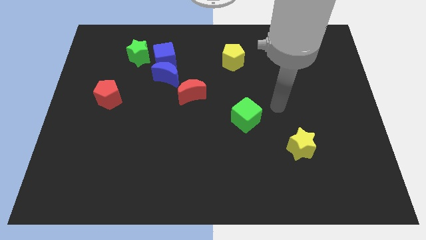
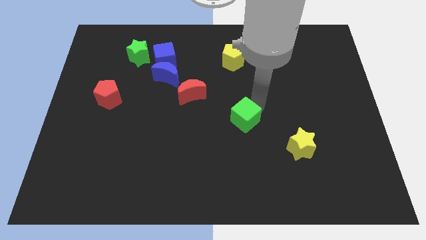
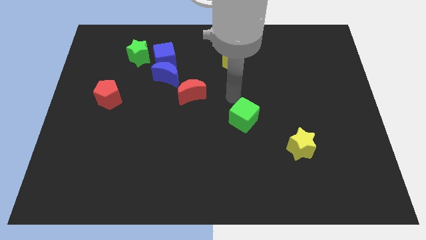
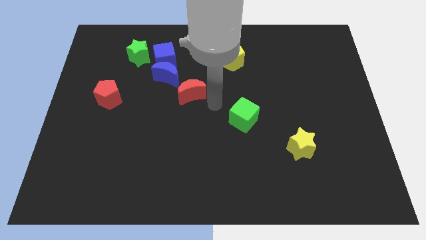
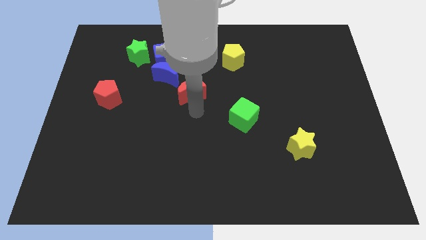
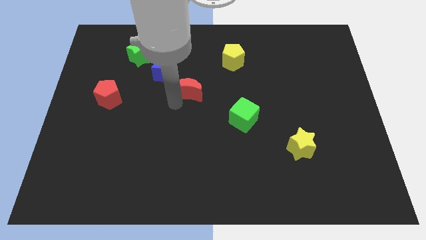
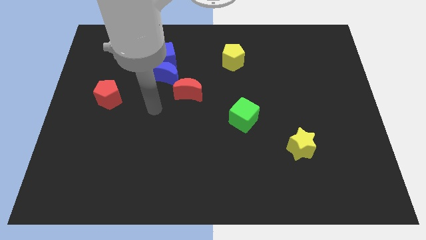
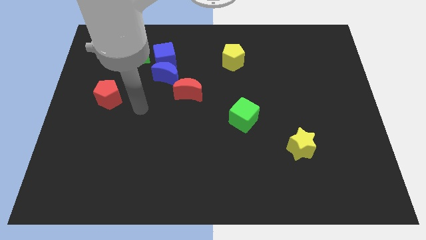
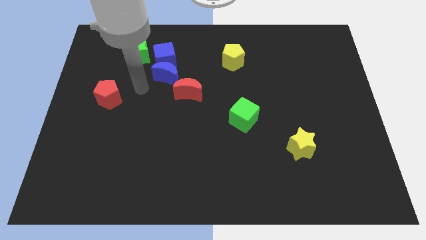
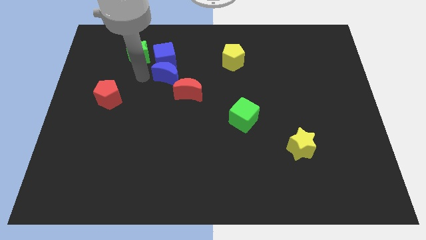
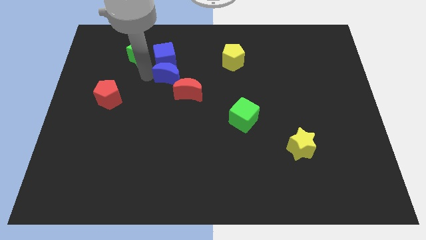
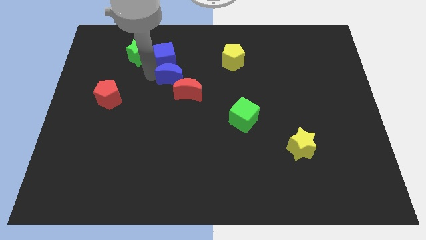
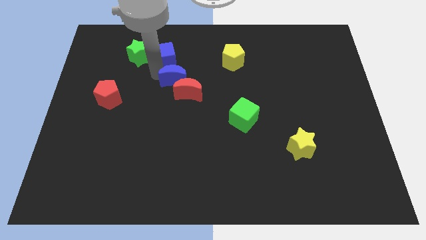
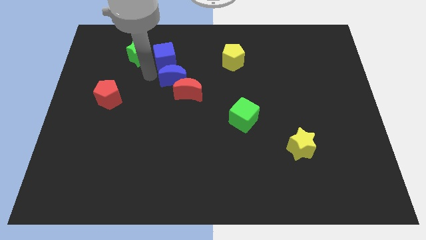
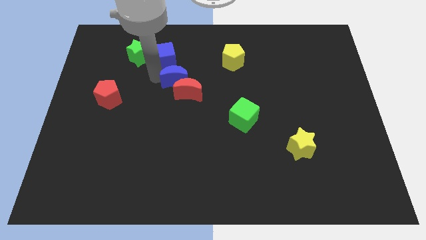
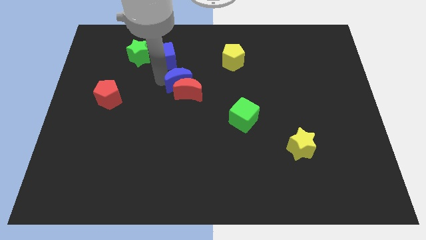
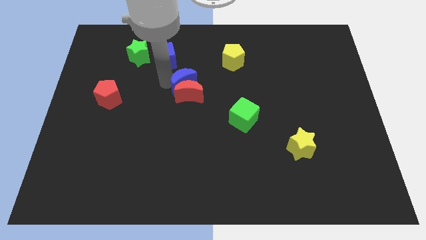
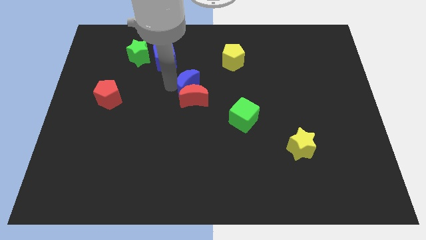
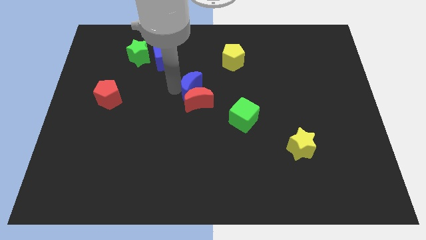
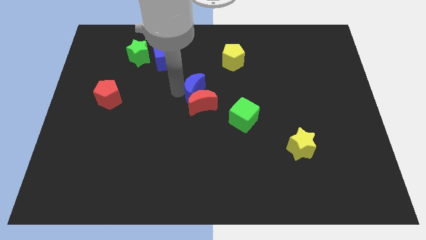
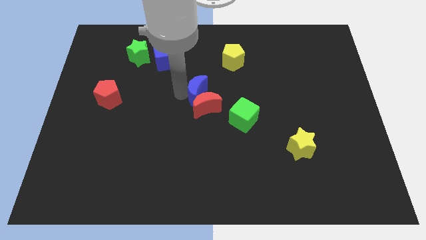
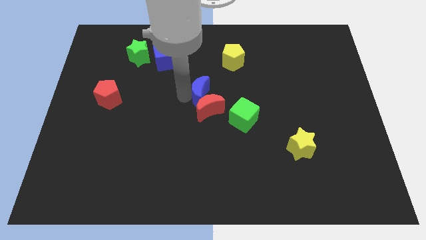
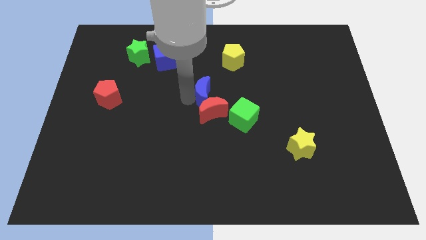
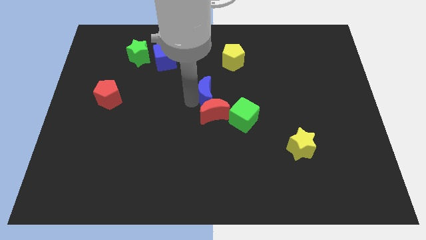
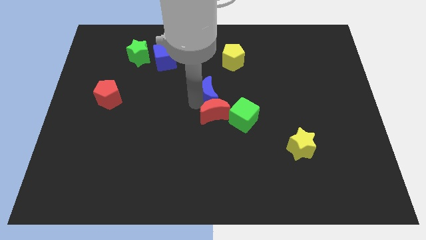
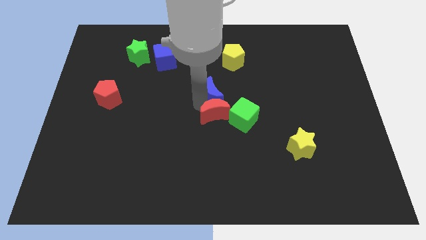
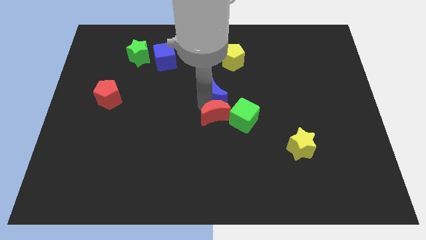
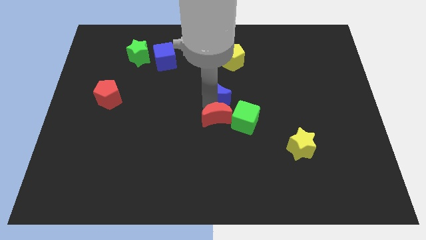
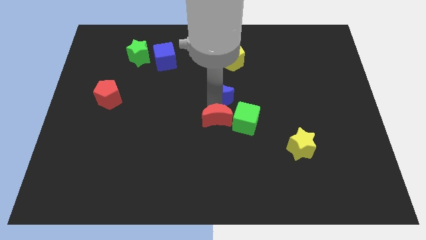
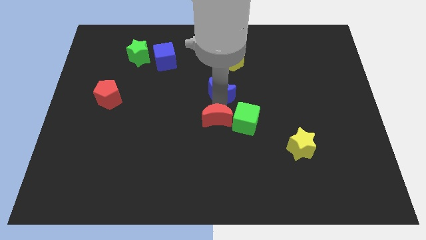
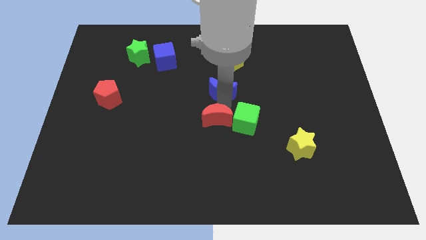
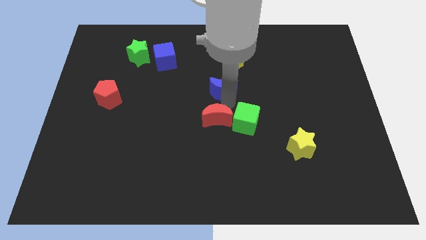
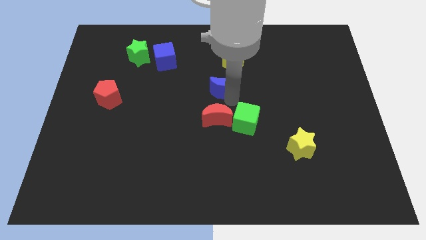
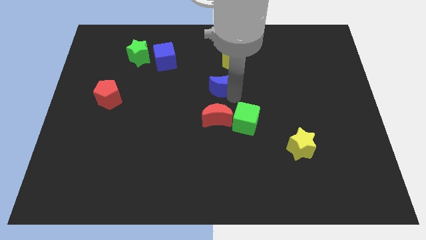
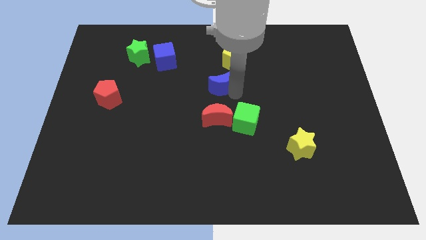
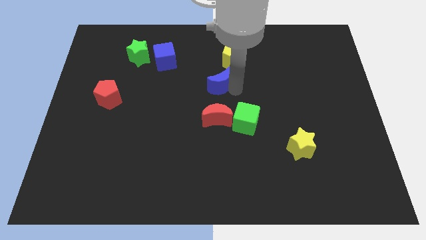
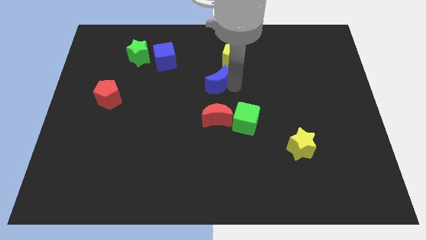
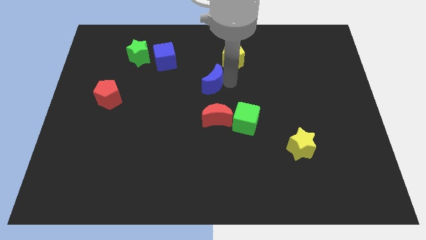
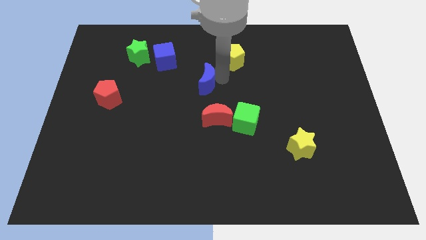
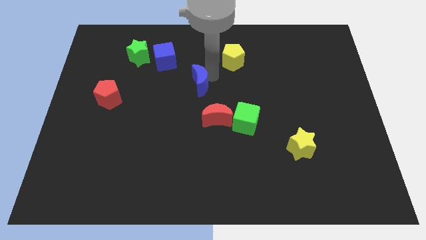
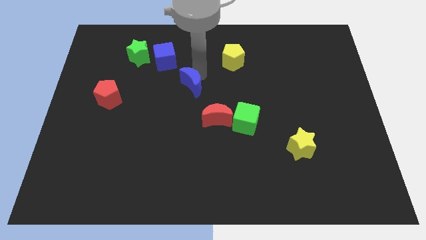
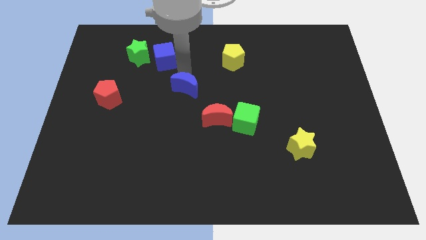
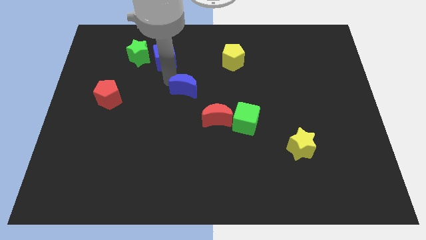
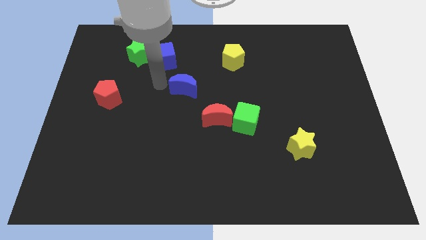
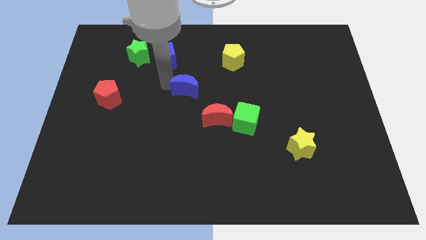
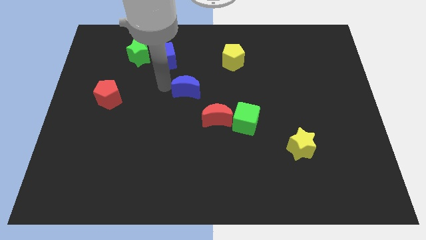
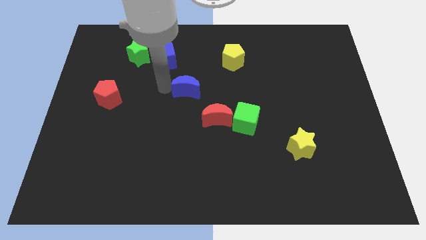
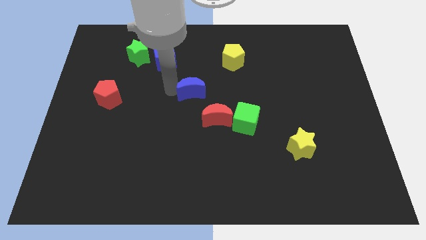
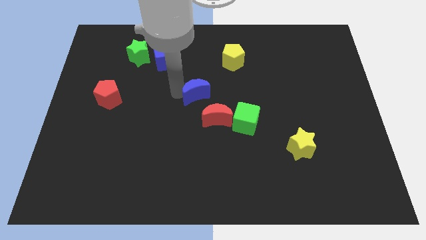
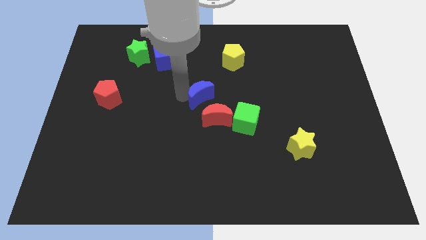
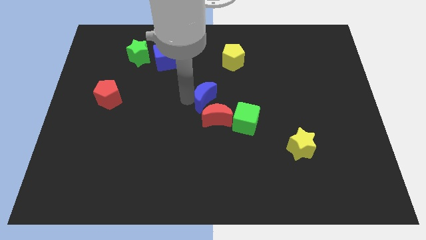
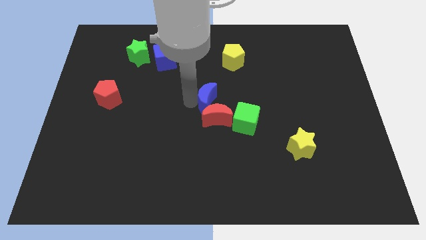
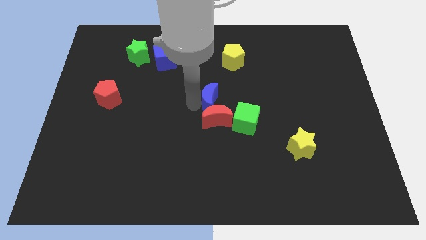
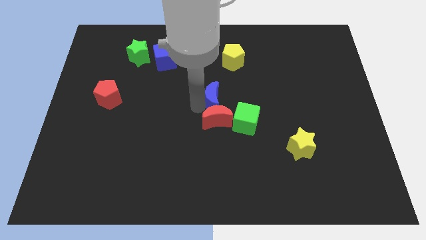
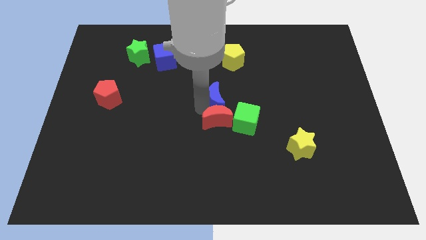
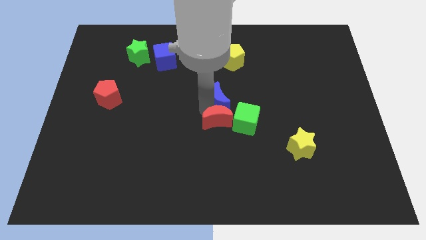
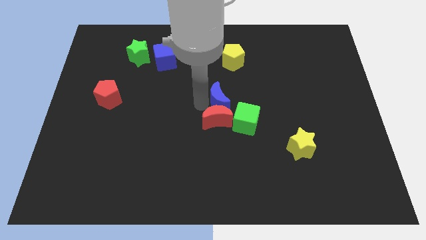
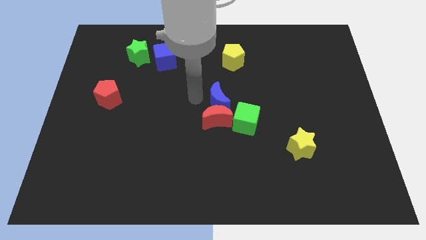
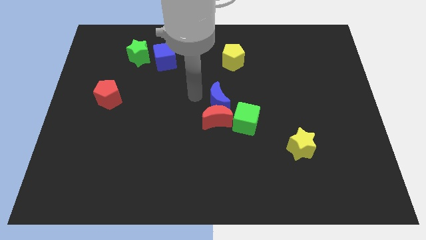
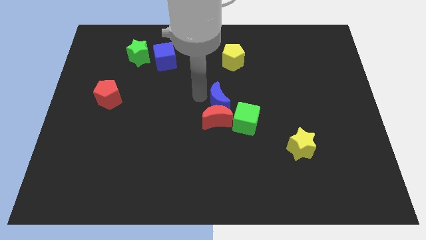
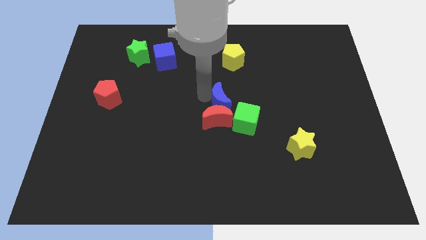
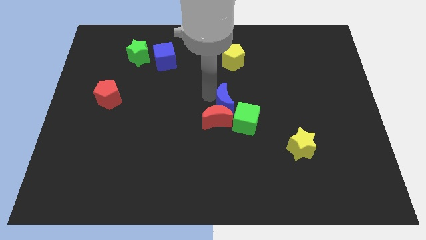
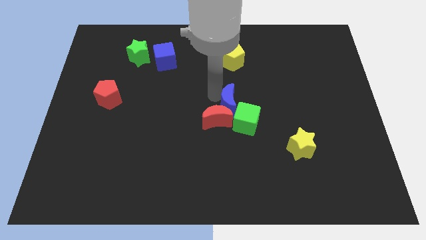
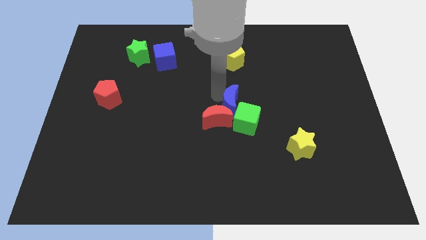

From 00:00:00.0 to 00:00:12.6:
put the blue moon next to the green cube

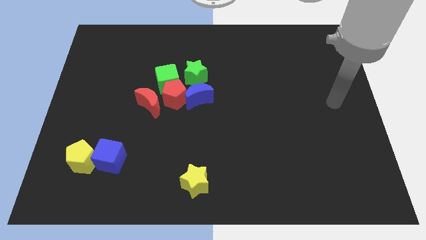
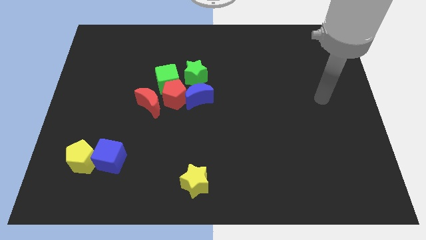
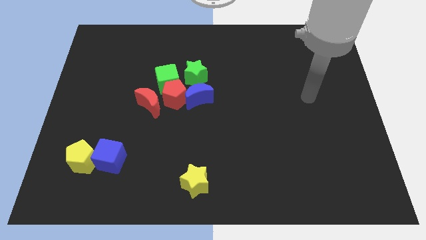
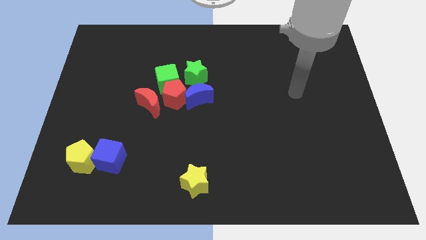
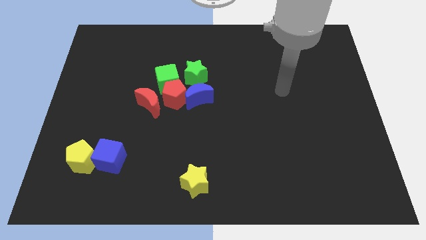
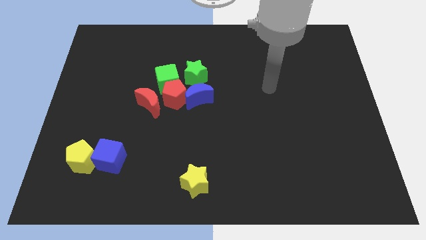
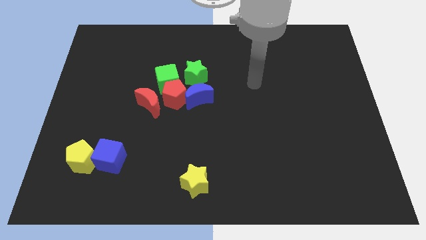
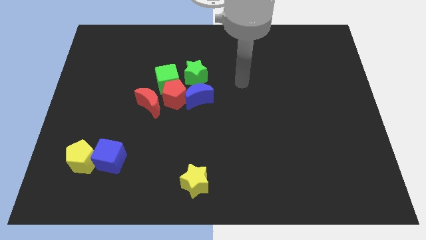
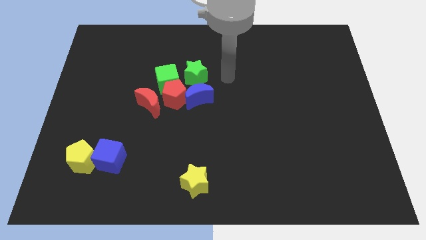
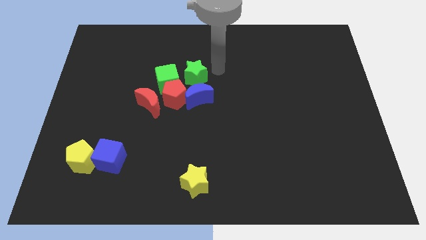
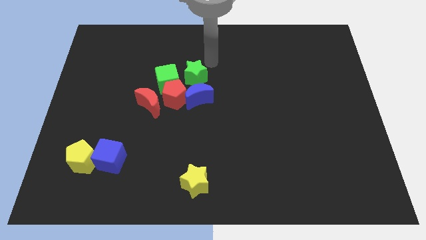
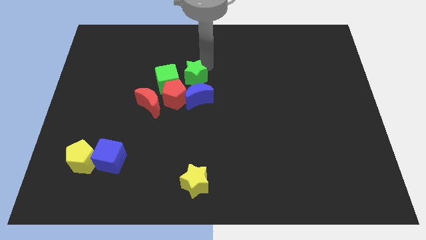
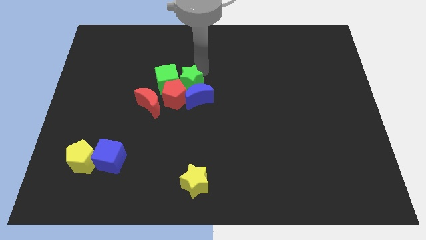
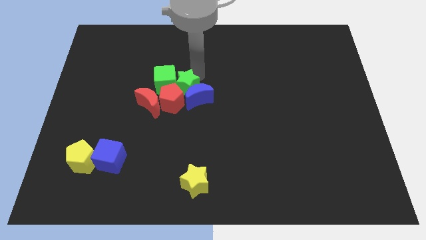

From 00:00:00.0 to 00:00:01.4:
move the green star to the red pentagon
